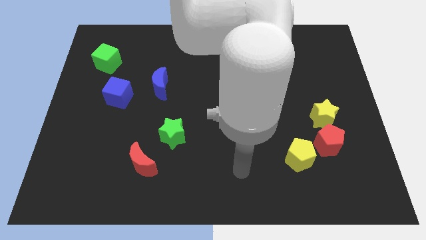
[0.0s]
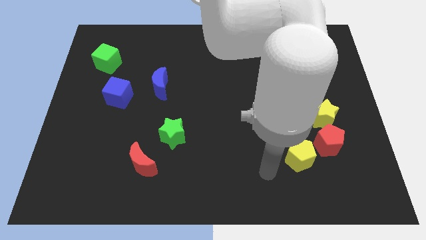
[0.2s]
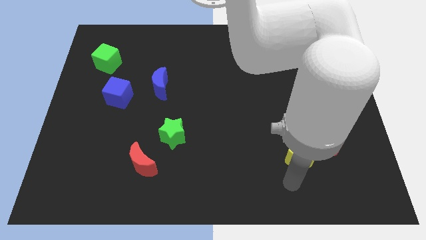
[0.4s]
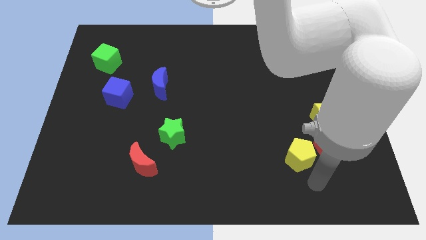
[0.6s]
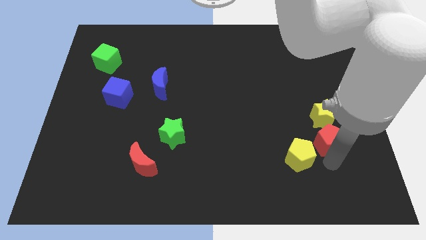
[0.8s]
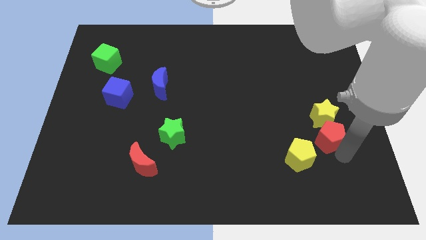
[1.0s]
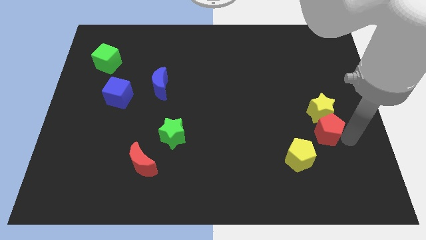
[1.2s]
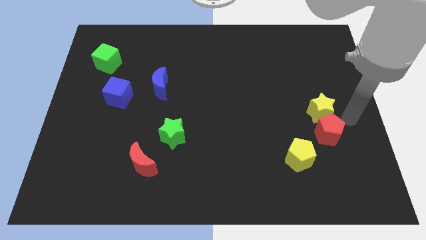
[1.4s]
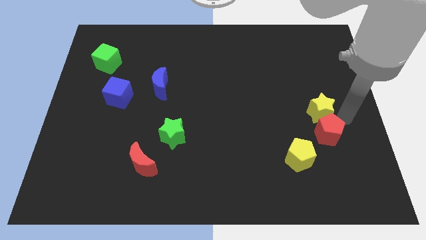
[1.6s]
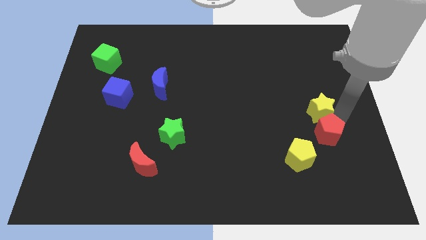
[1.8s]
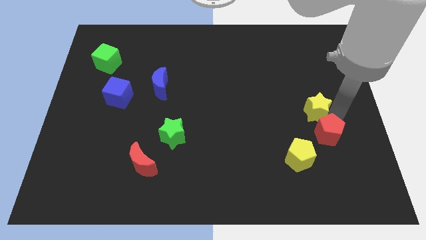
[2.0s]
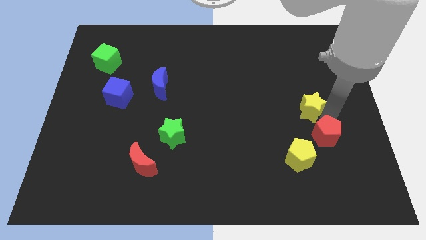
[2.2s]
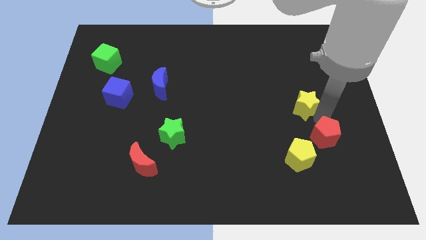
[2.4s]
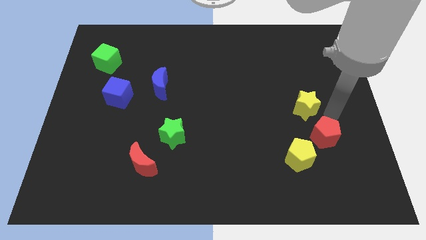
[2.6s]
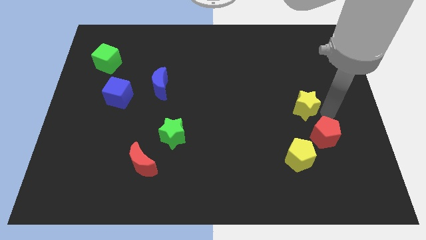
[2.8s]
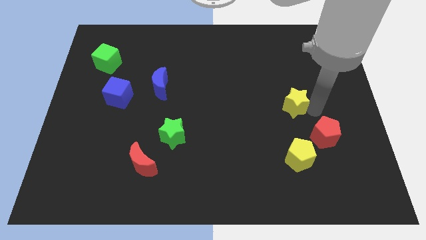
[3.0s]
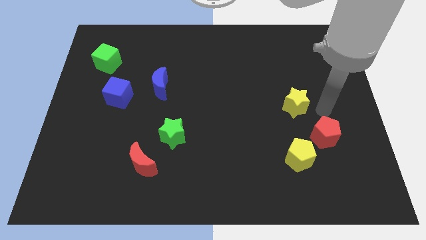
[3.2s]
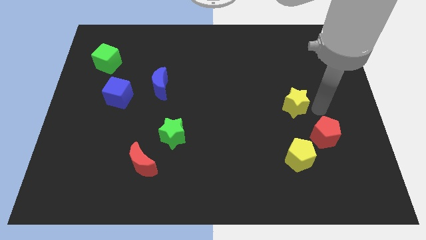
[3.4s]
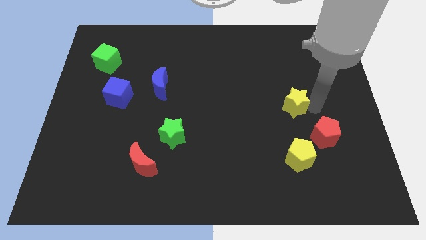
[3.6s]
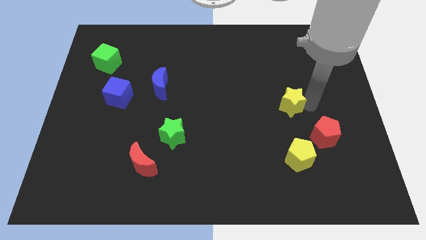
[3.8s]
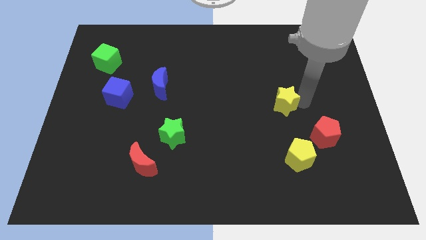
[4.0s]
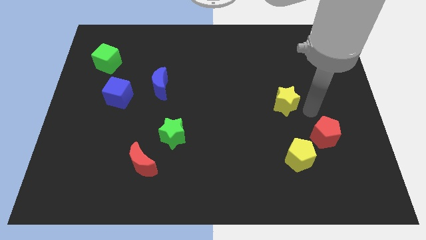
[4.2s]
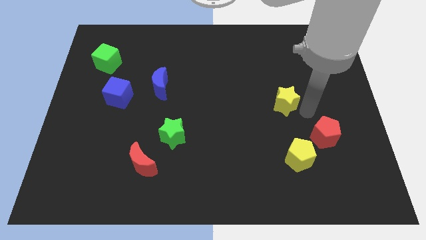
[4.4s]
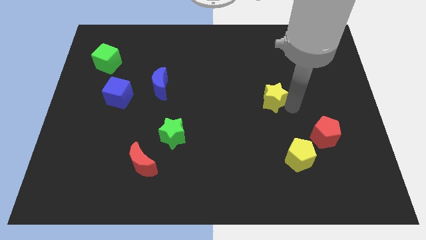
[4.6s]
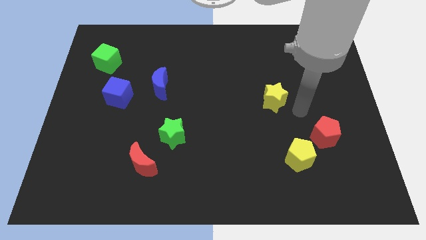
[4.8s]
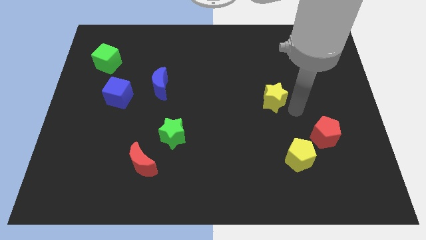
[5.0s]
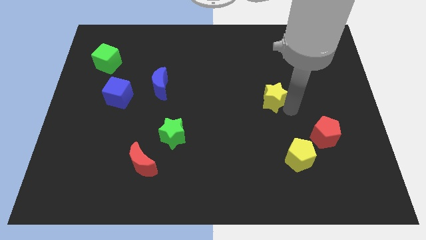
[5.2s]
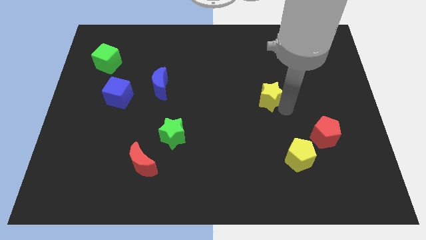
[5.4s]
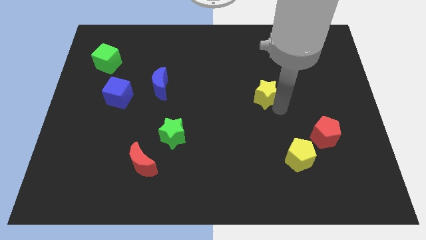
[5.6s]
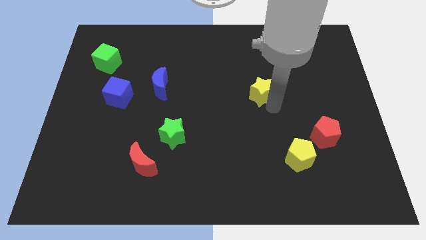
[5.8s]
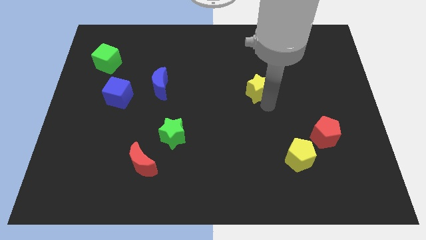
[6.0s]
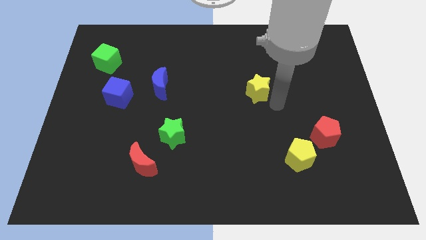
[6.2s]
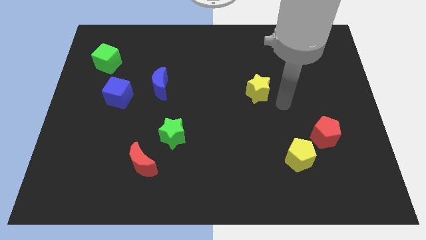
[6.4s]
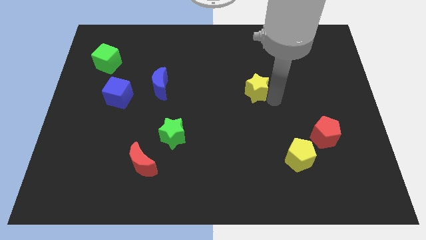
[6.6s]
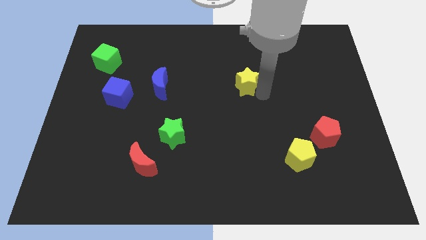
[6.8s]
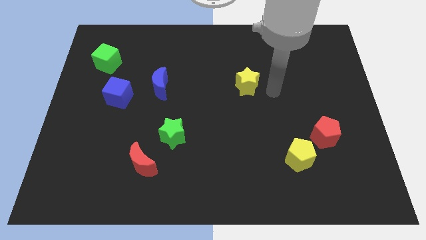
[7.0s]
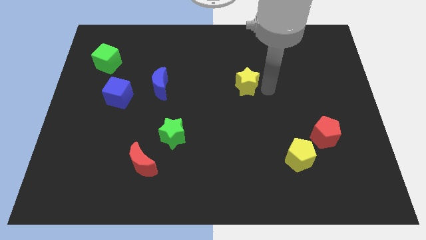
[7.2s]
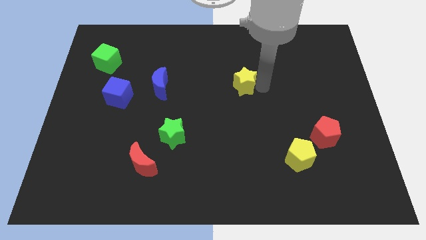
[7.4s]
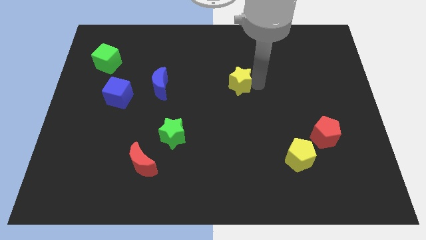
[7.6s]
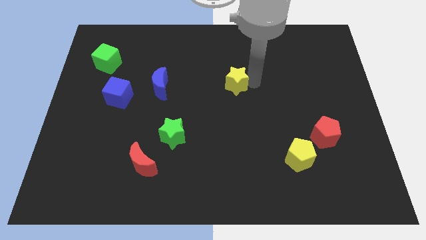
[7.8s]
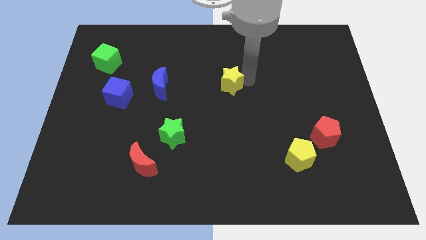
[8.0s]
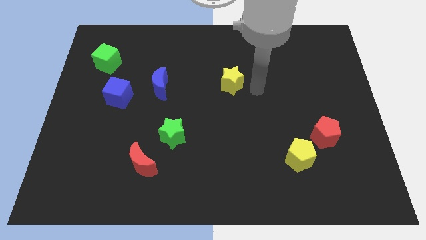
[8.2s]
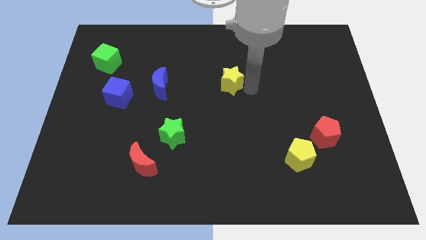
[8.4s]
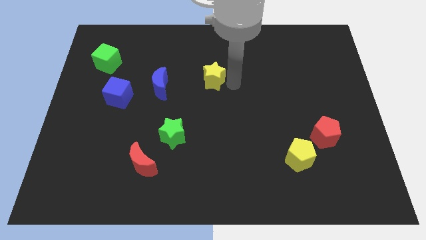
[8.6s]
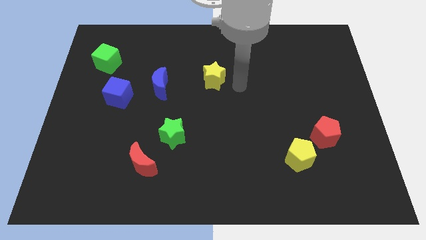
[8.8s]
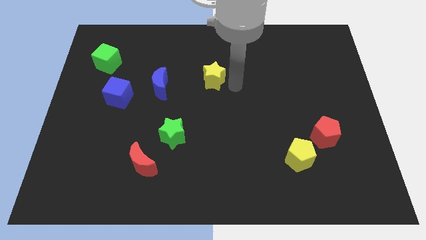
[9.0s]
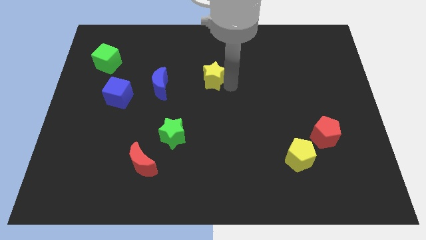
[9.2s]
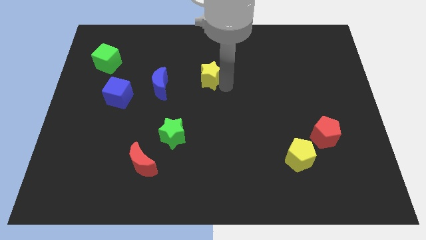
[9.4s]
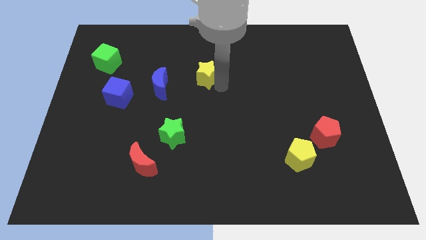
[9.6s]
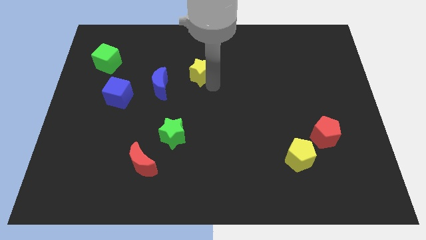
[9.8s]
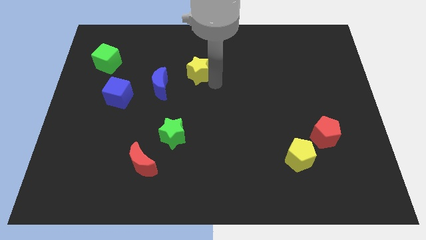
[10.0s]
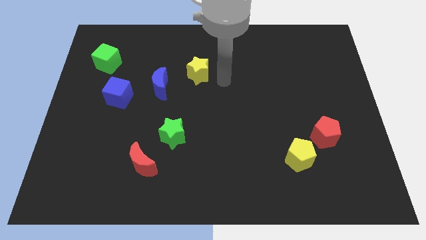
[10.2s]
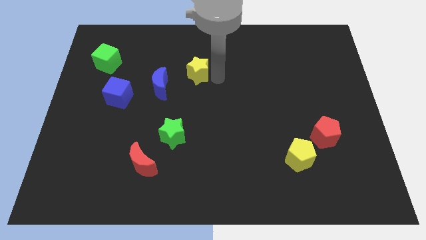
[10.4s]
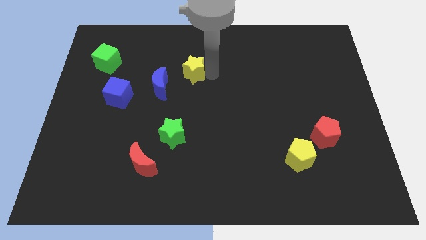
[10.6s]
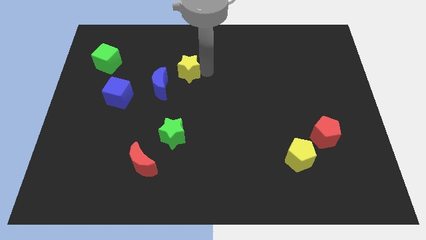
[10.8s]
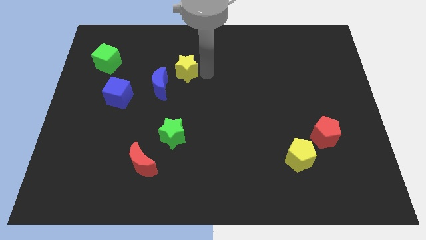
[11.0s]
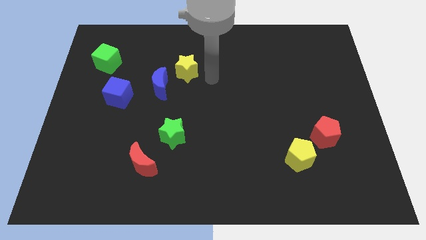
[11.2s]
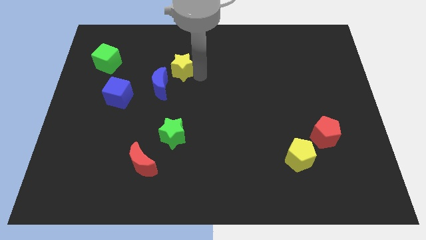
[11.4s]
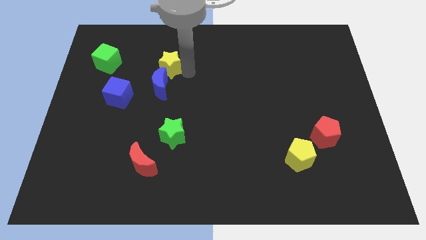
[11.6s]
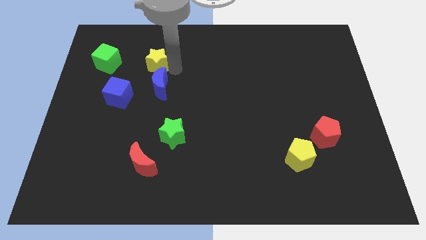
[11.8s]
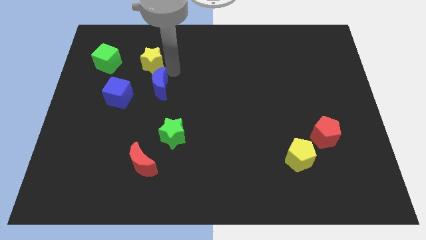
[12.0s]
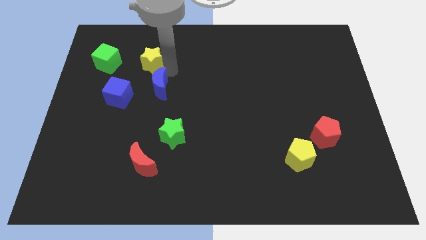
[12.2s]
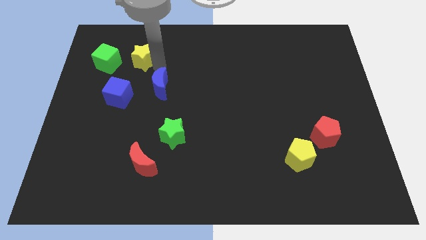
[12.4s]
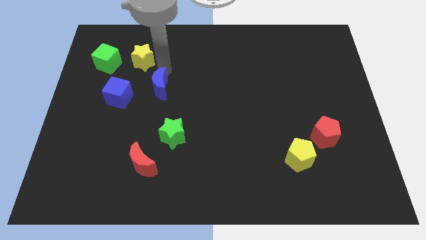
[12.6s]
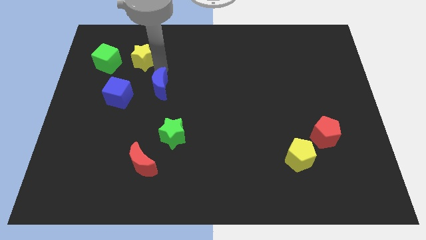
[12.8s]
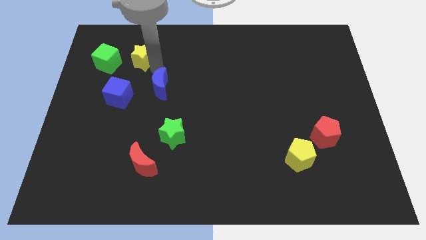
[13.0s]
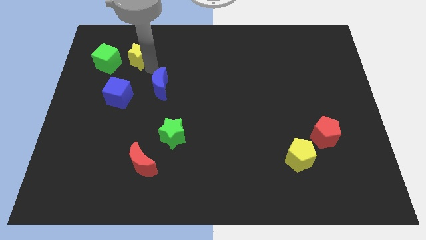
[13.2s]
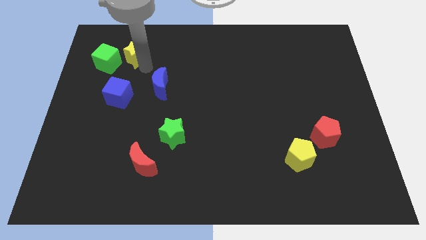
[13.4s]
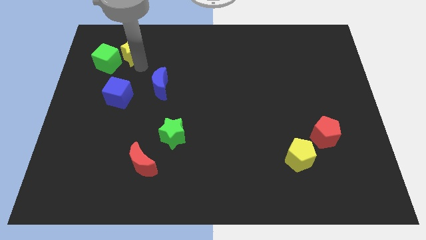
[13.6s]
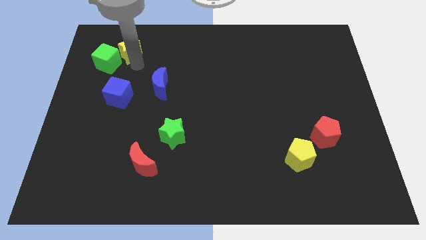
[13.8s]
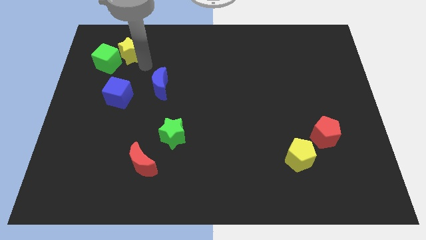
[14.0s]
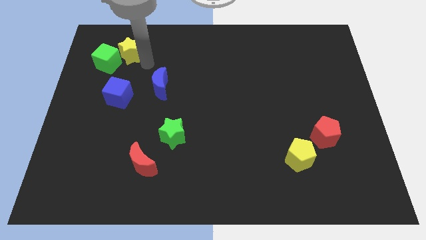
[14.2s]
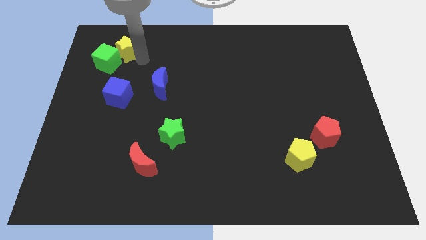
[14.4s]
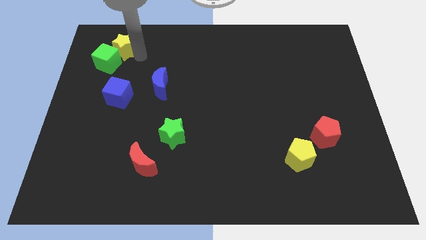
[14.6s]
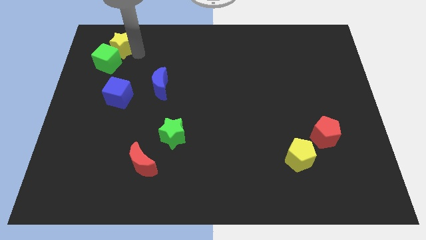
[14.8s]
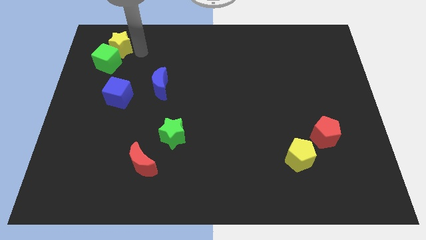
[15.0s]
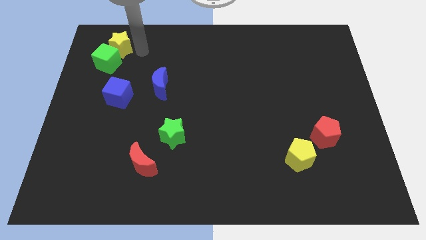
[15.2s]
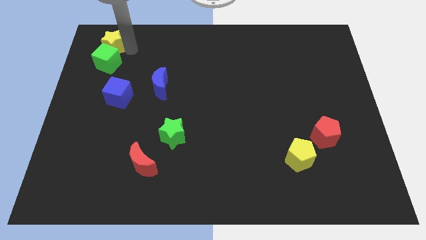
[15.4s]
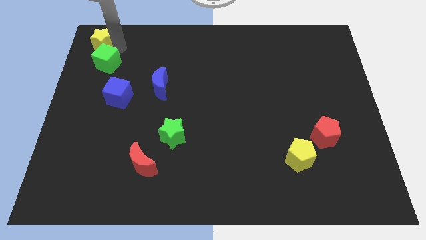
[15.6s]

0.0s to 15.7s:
move the yellow star to the top left
